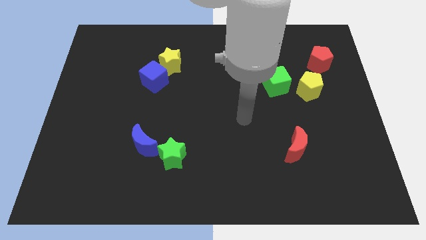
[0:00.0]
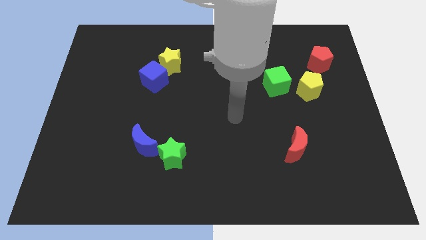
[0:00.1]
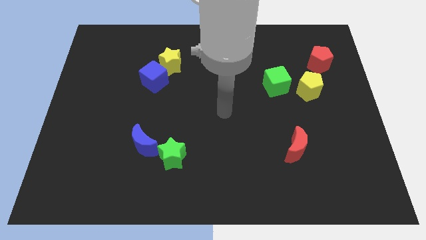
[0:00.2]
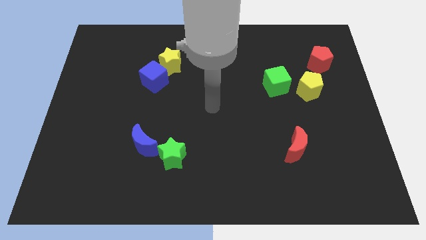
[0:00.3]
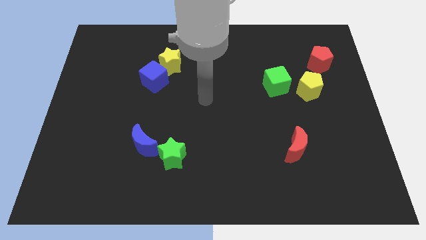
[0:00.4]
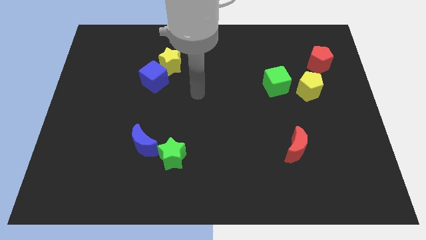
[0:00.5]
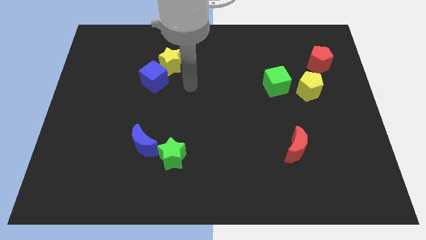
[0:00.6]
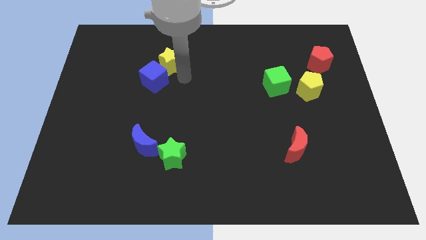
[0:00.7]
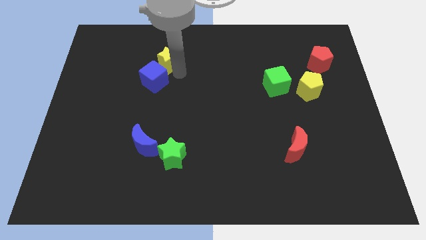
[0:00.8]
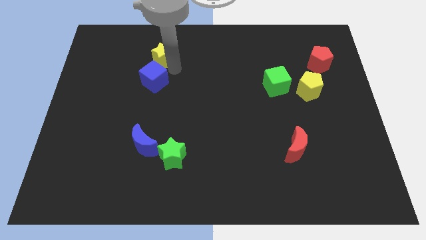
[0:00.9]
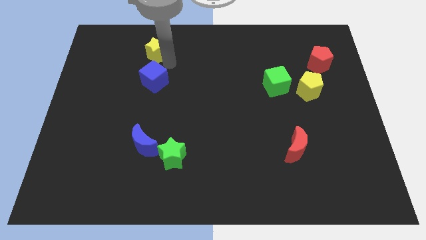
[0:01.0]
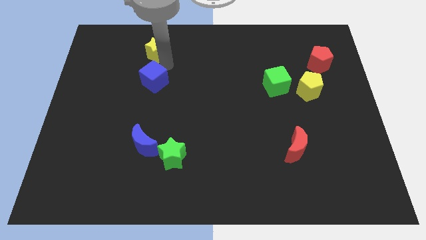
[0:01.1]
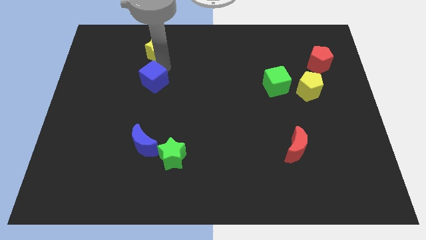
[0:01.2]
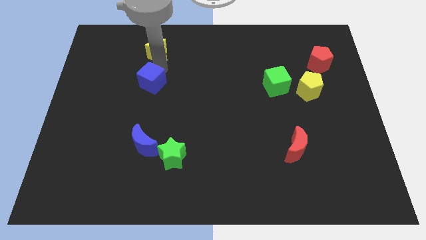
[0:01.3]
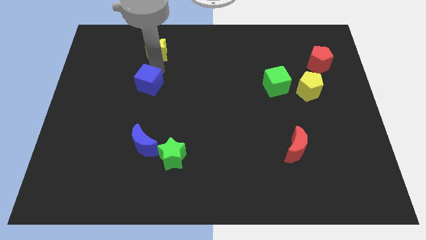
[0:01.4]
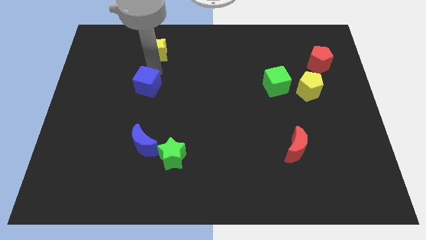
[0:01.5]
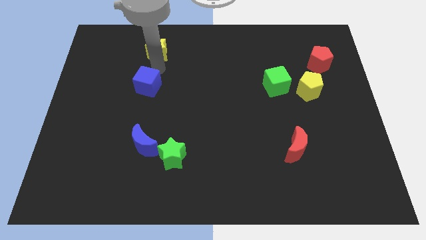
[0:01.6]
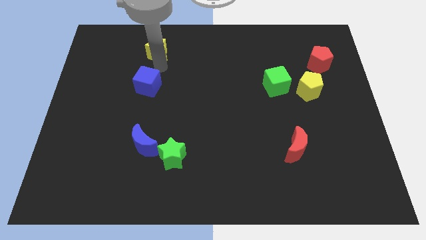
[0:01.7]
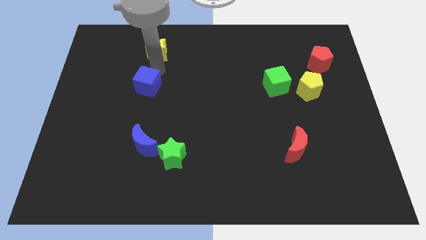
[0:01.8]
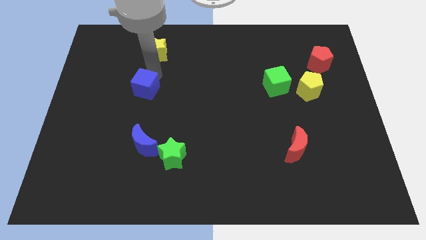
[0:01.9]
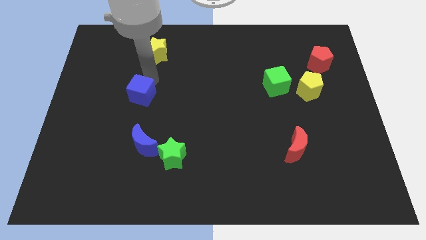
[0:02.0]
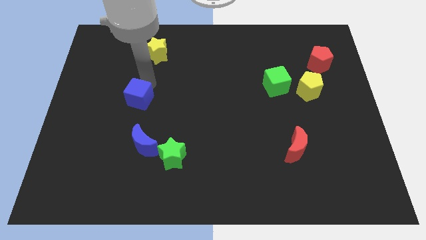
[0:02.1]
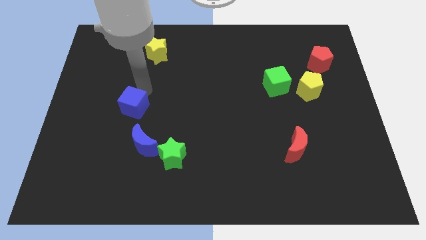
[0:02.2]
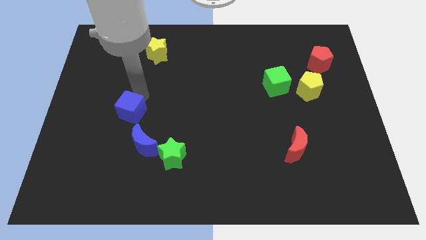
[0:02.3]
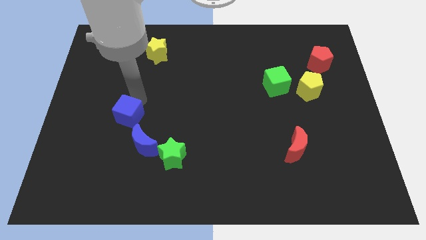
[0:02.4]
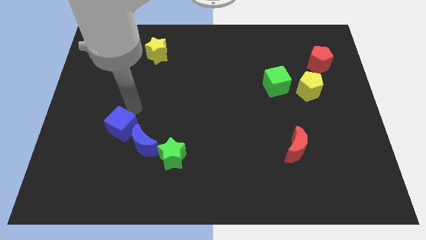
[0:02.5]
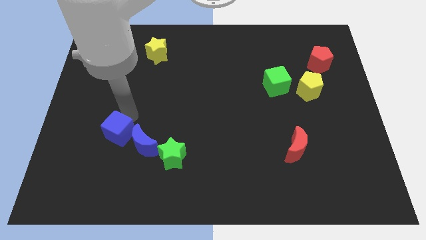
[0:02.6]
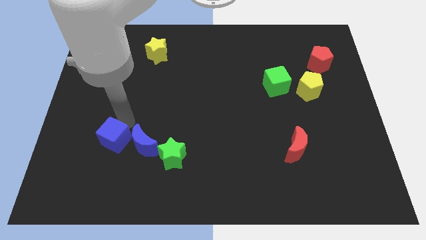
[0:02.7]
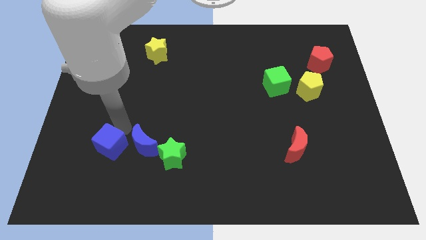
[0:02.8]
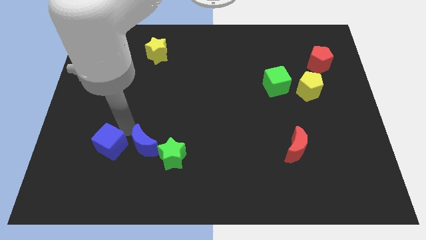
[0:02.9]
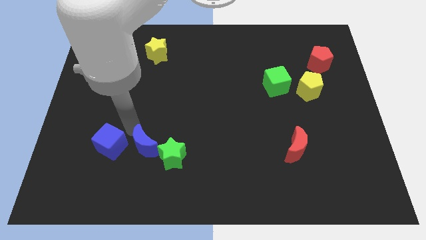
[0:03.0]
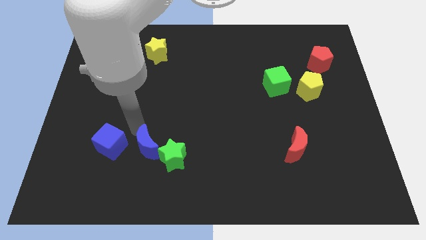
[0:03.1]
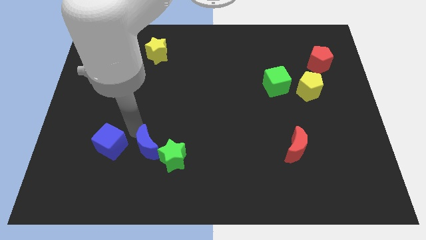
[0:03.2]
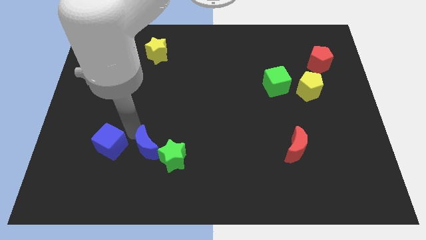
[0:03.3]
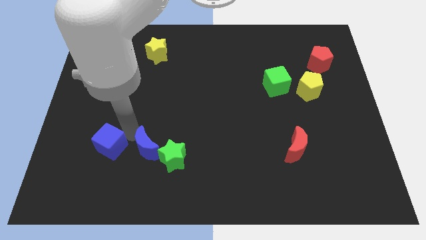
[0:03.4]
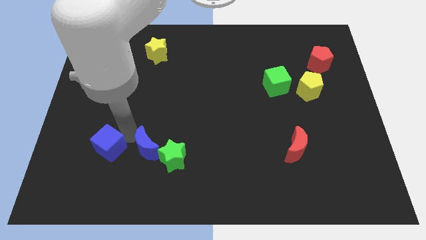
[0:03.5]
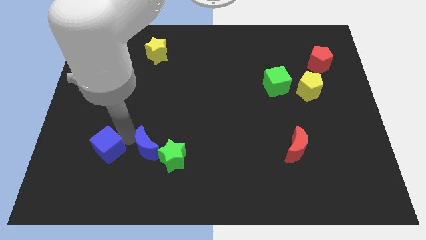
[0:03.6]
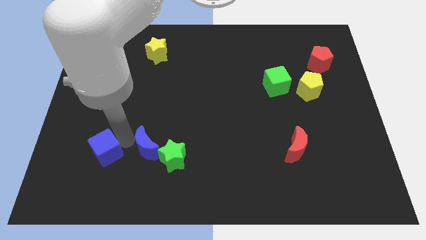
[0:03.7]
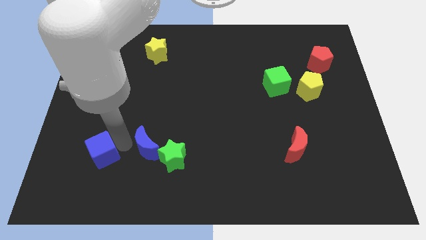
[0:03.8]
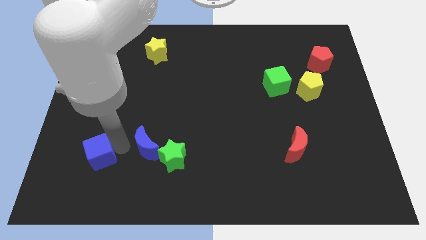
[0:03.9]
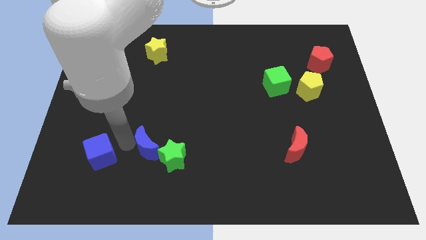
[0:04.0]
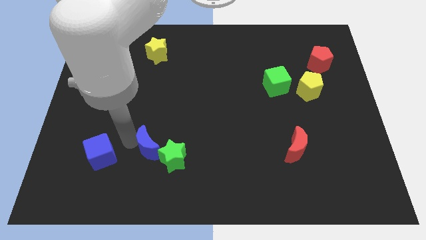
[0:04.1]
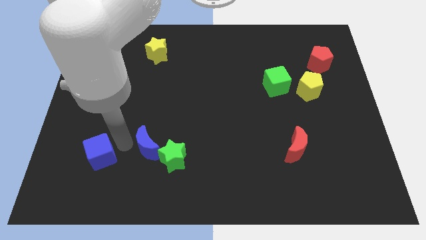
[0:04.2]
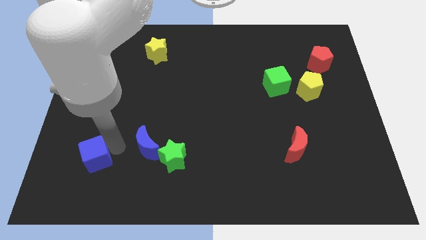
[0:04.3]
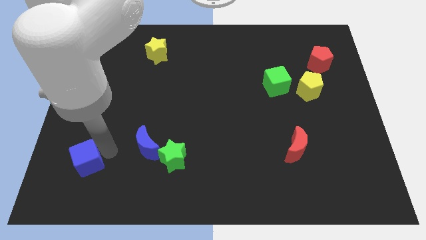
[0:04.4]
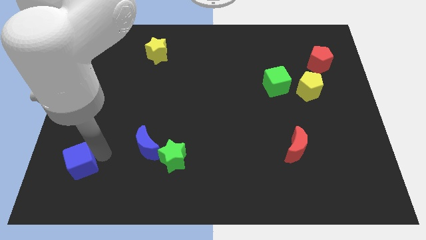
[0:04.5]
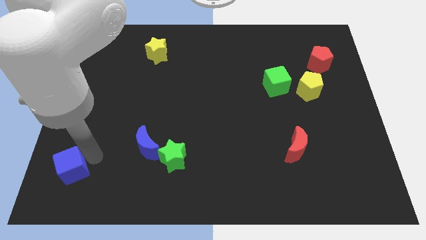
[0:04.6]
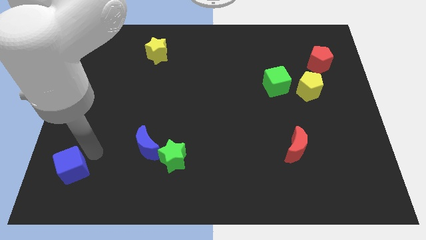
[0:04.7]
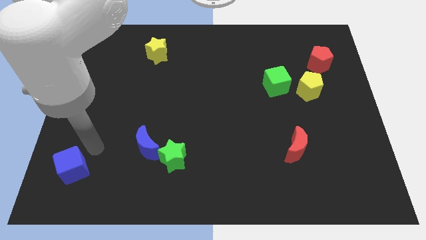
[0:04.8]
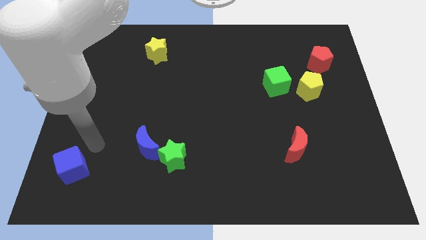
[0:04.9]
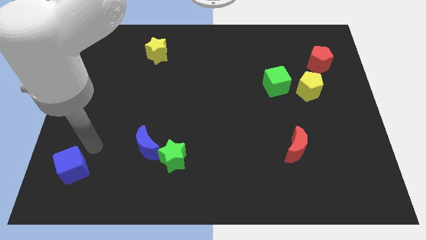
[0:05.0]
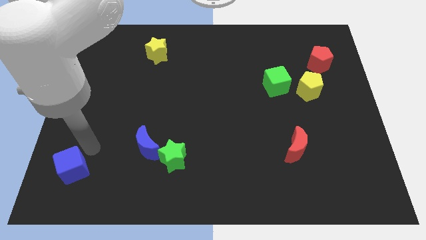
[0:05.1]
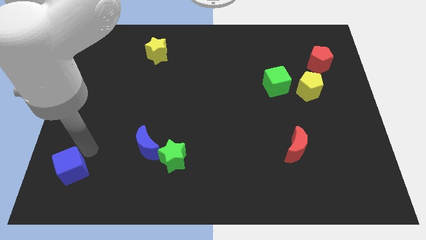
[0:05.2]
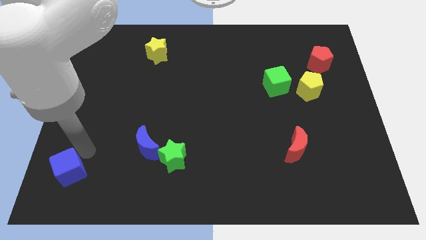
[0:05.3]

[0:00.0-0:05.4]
slide the blue cube to the lower left corner
